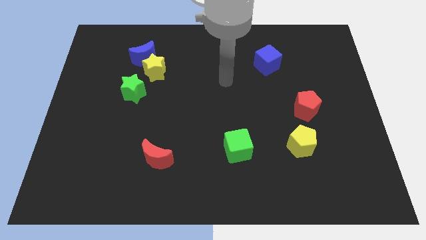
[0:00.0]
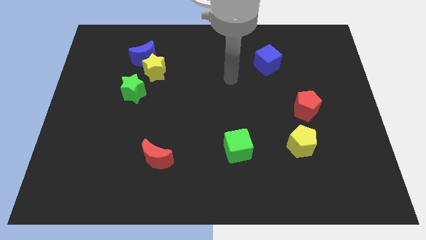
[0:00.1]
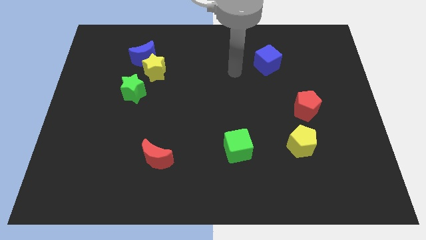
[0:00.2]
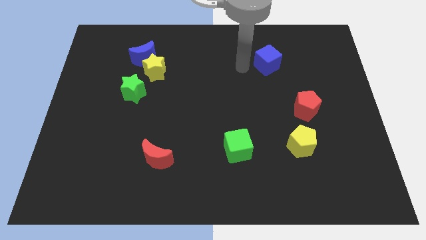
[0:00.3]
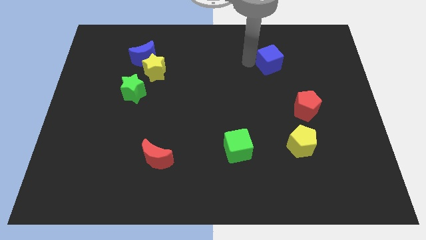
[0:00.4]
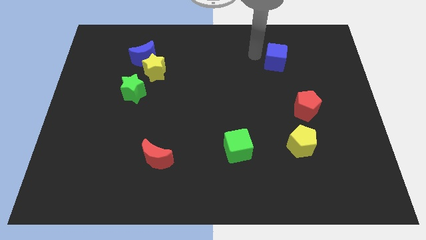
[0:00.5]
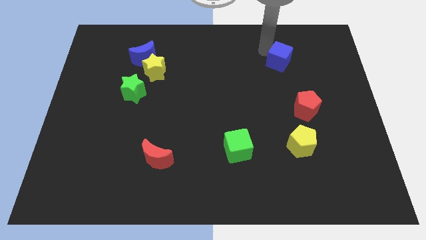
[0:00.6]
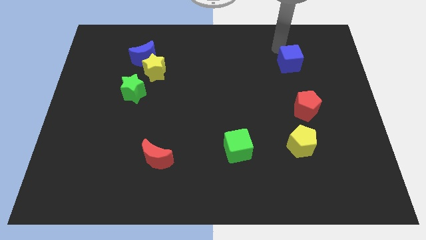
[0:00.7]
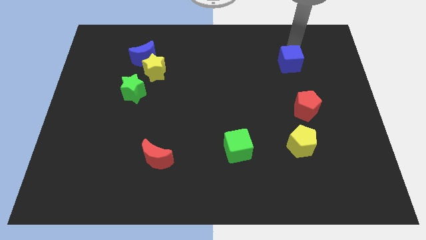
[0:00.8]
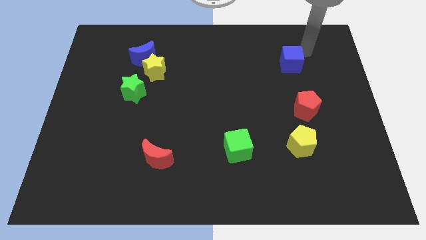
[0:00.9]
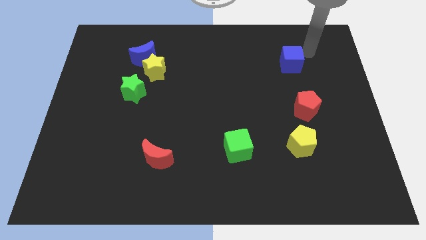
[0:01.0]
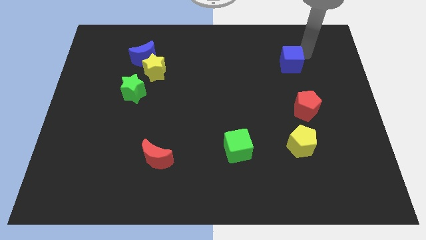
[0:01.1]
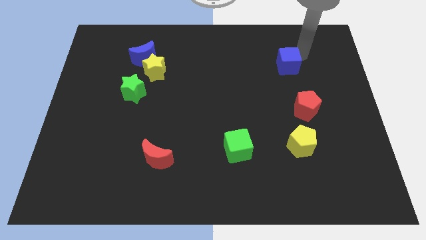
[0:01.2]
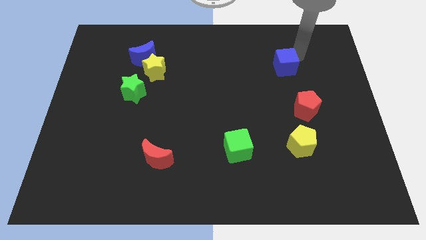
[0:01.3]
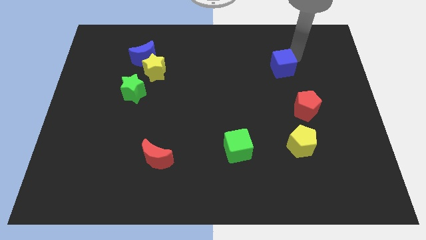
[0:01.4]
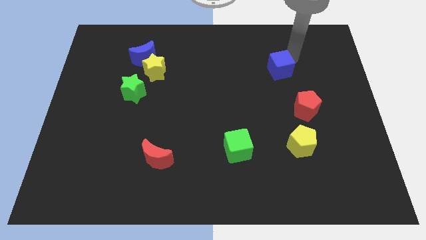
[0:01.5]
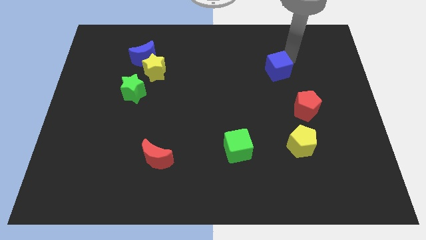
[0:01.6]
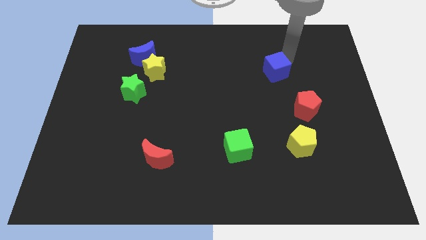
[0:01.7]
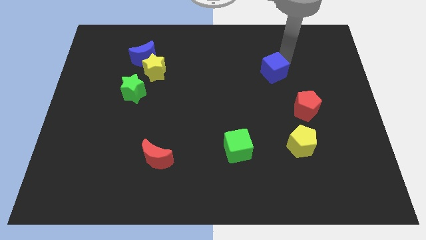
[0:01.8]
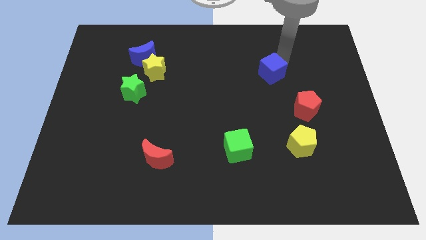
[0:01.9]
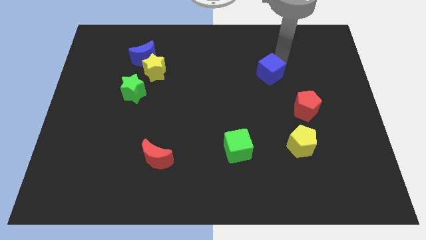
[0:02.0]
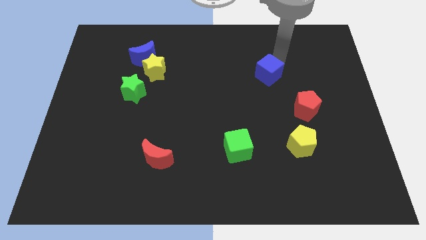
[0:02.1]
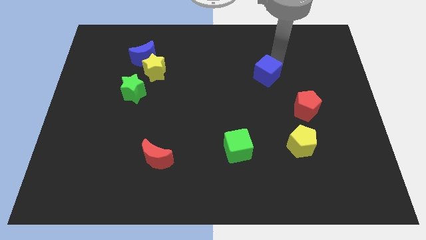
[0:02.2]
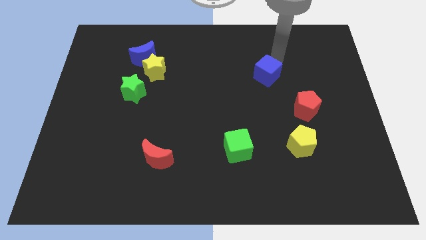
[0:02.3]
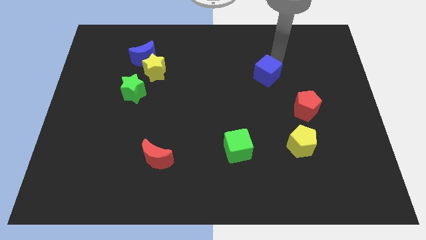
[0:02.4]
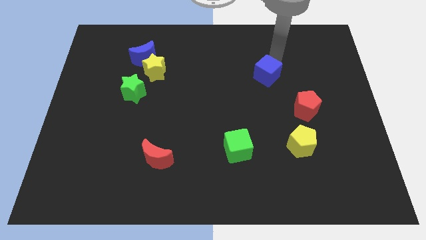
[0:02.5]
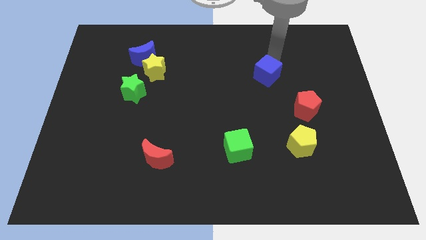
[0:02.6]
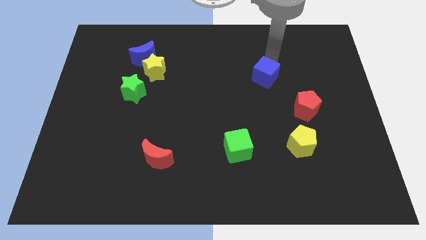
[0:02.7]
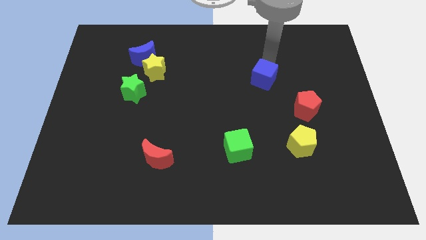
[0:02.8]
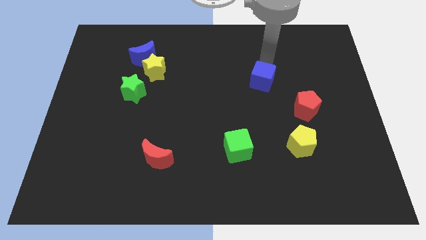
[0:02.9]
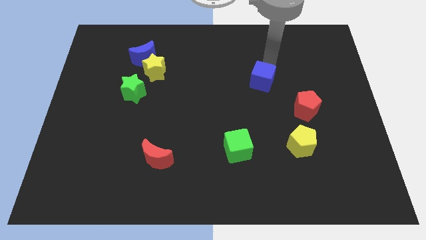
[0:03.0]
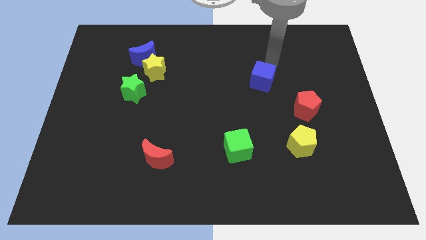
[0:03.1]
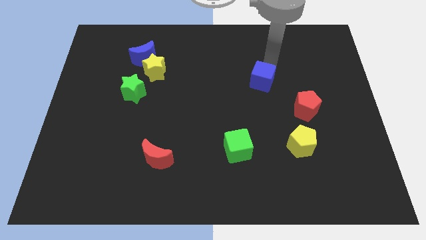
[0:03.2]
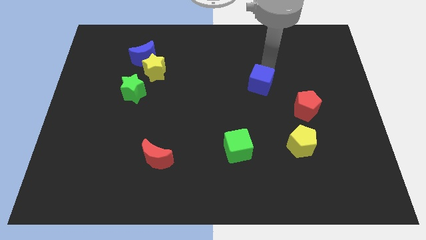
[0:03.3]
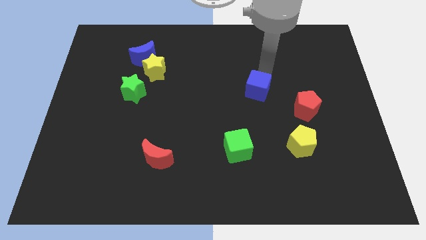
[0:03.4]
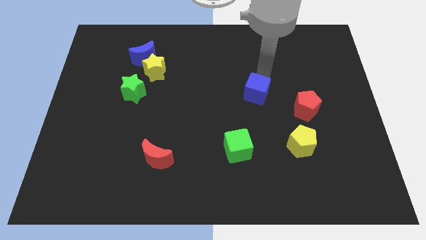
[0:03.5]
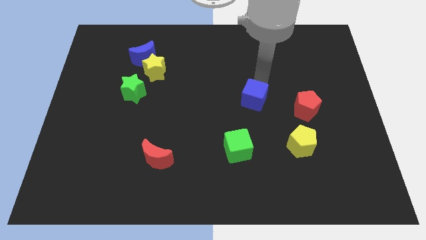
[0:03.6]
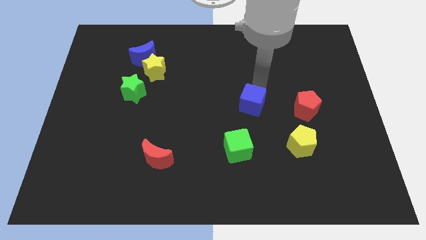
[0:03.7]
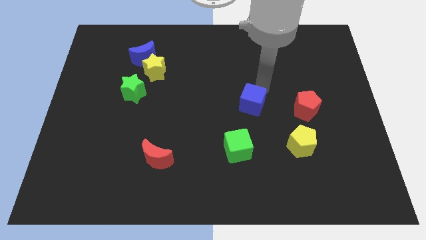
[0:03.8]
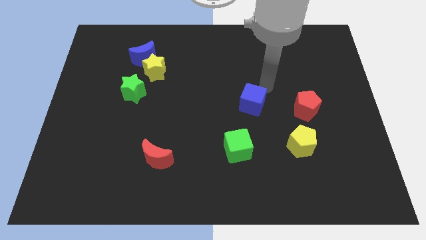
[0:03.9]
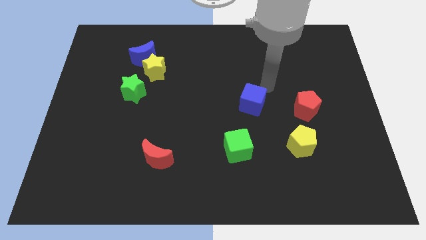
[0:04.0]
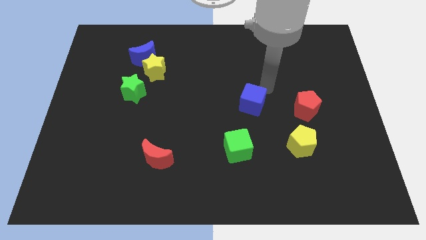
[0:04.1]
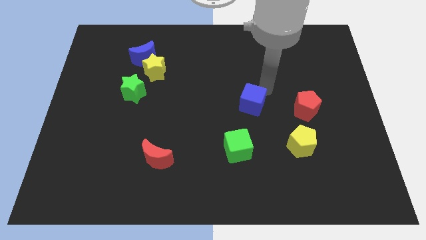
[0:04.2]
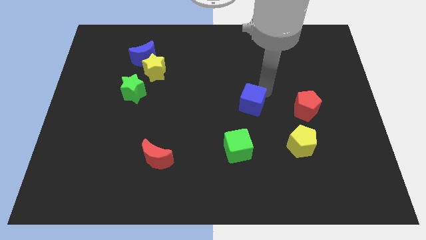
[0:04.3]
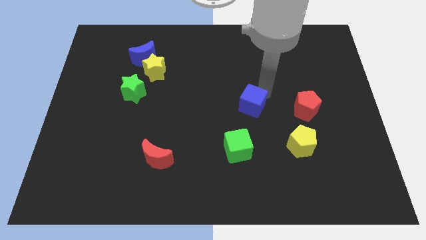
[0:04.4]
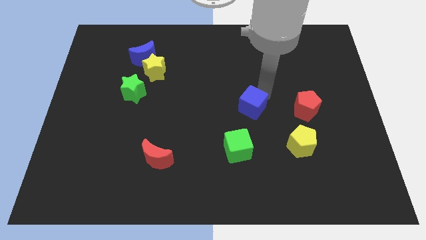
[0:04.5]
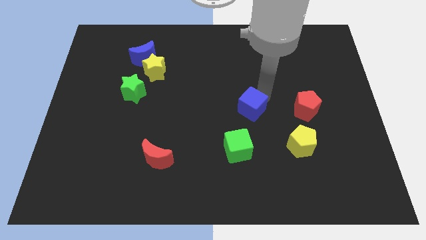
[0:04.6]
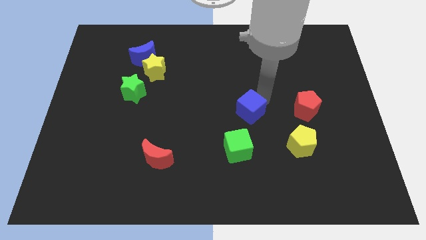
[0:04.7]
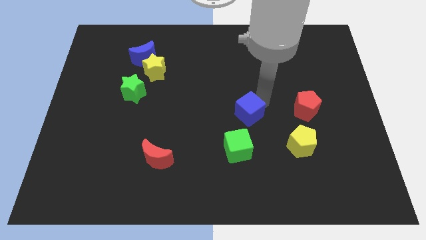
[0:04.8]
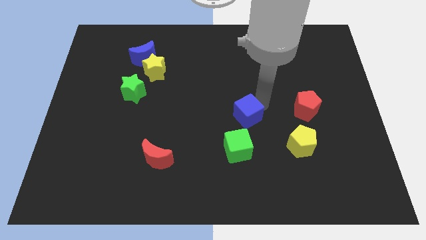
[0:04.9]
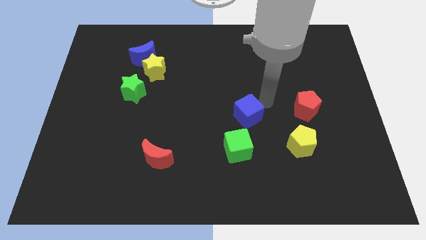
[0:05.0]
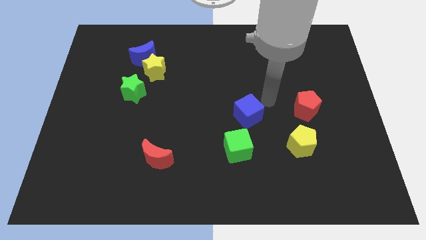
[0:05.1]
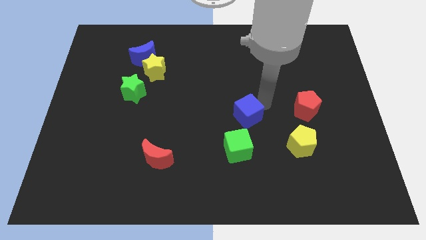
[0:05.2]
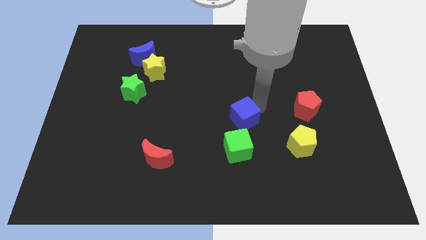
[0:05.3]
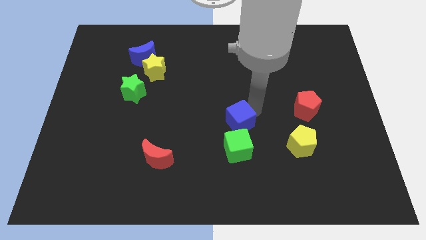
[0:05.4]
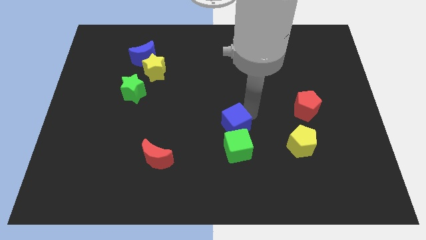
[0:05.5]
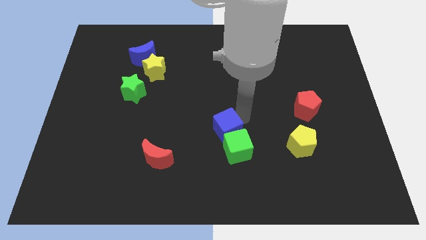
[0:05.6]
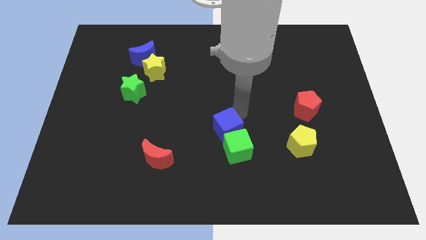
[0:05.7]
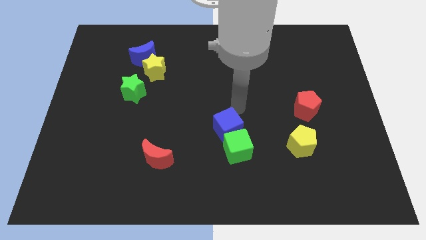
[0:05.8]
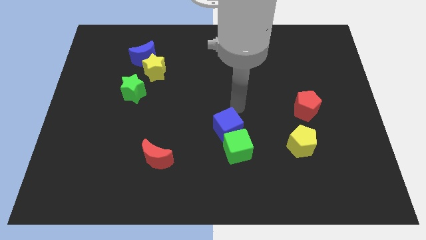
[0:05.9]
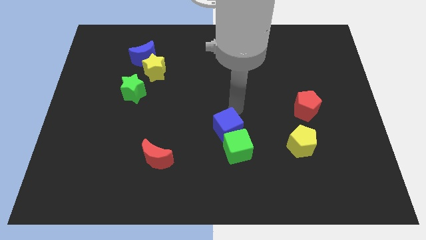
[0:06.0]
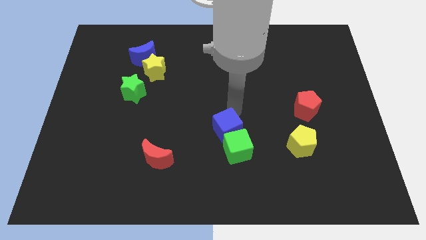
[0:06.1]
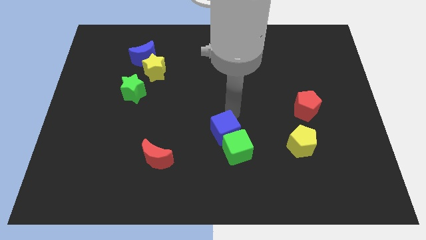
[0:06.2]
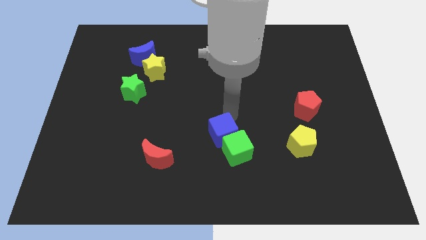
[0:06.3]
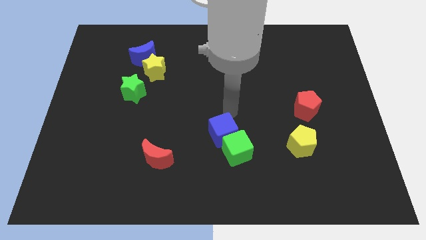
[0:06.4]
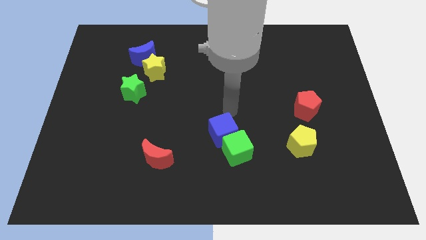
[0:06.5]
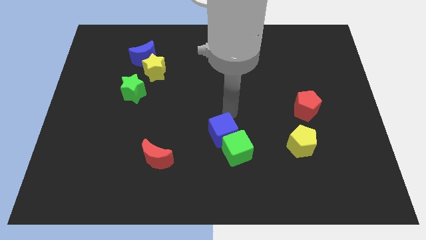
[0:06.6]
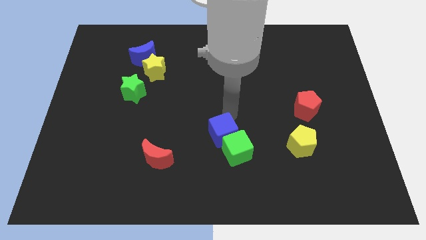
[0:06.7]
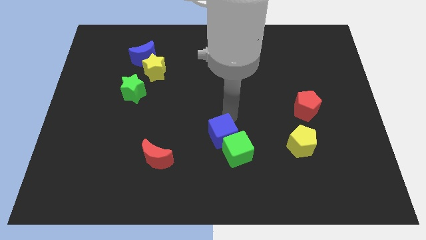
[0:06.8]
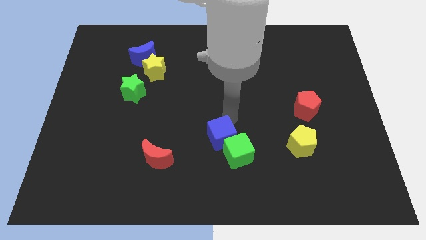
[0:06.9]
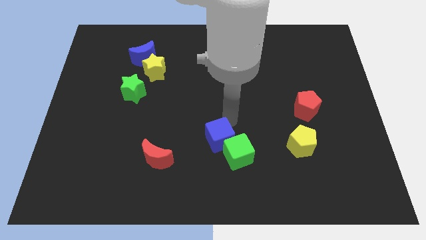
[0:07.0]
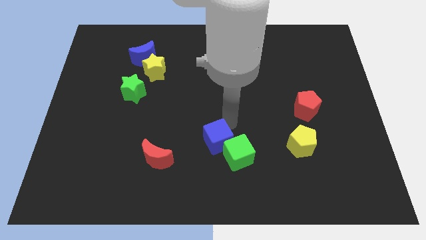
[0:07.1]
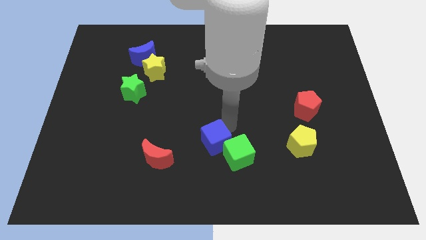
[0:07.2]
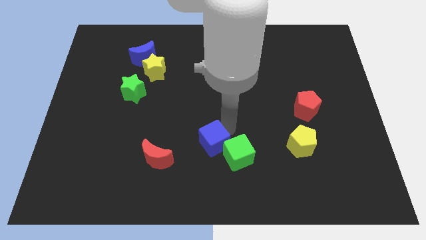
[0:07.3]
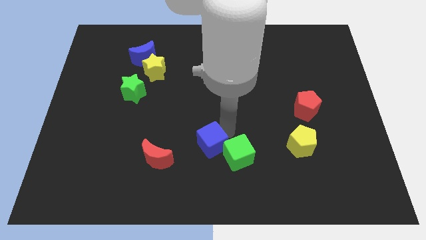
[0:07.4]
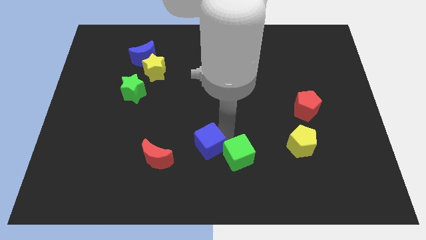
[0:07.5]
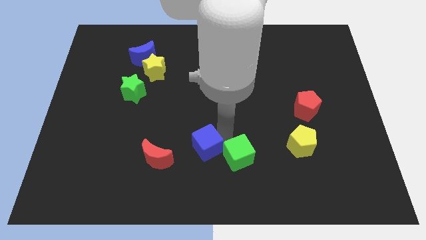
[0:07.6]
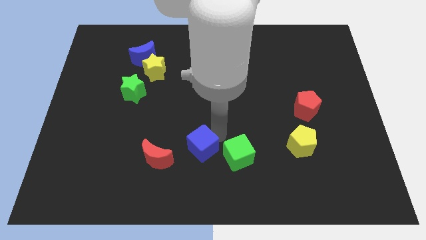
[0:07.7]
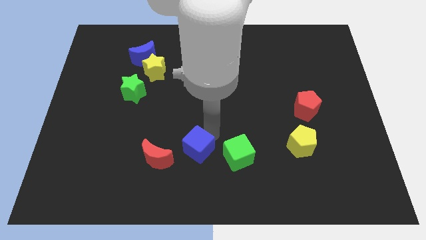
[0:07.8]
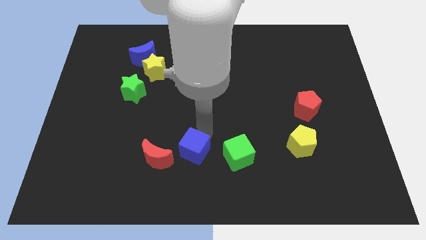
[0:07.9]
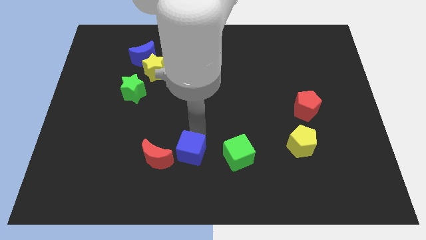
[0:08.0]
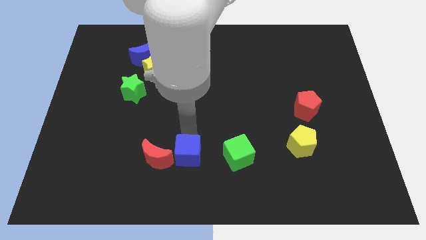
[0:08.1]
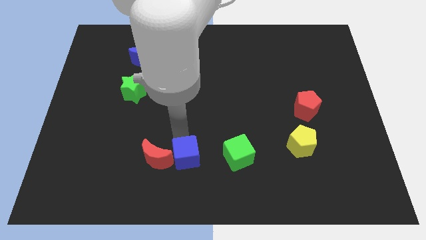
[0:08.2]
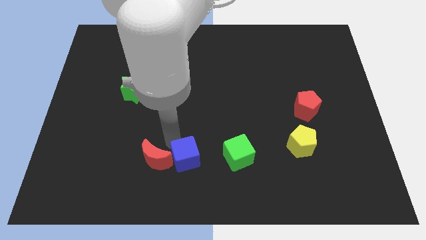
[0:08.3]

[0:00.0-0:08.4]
move the blue cube to the bottom side
